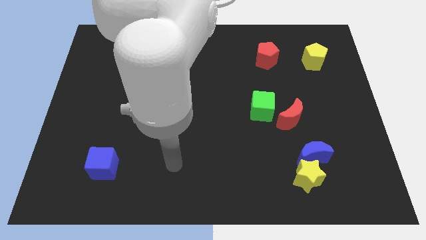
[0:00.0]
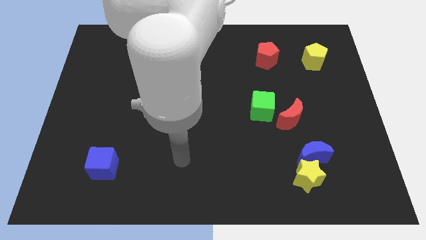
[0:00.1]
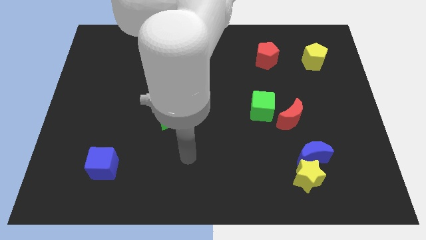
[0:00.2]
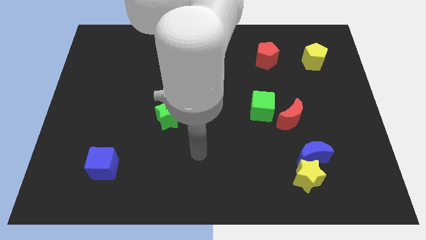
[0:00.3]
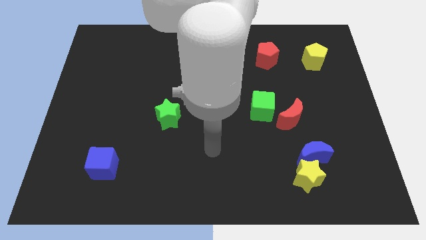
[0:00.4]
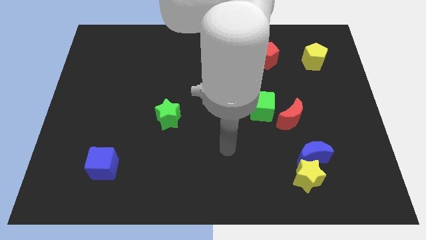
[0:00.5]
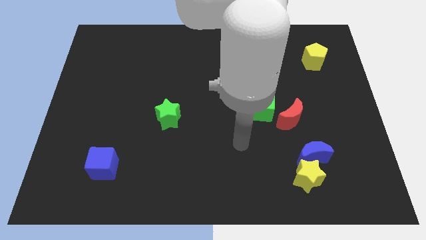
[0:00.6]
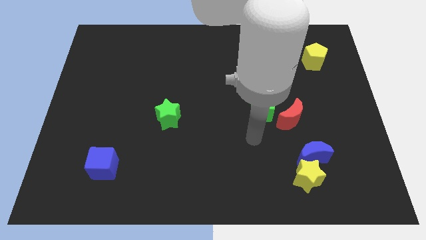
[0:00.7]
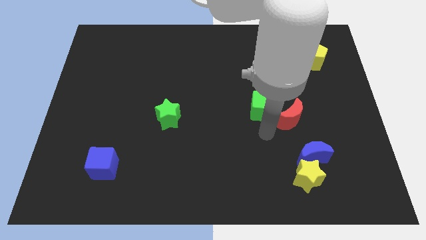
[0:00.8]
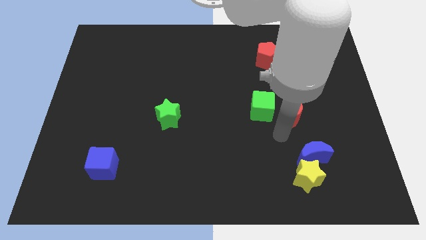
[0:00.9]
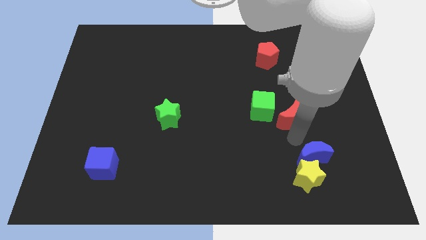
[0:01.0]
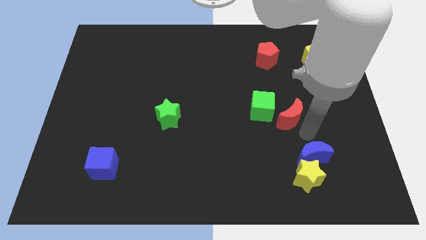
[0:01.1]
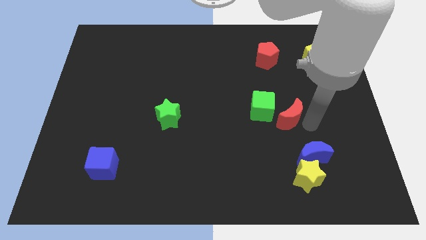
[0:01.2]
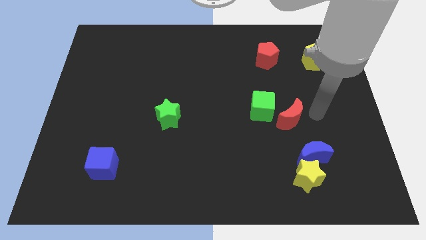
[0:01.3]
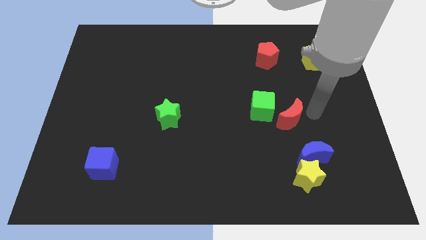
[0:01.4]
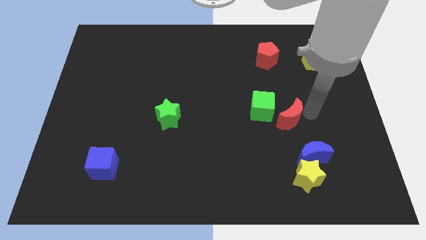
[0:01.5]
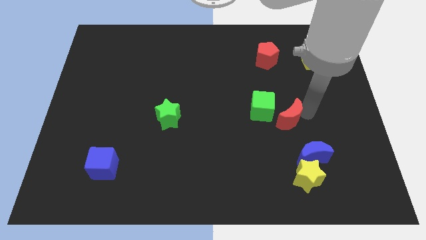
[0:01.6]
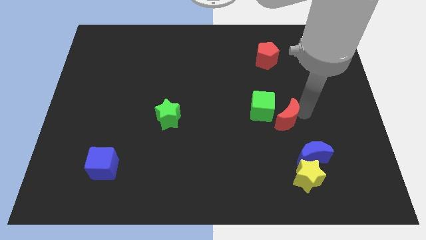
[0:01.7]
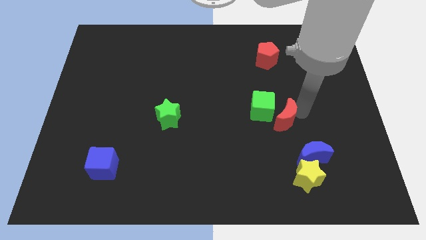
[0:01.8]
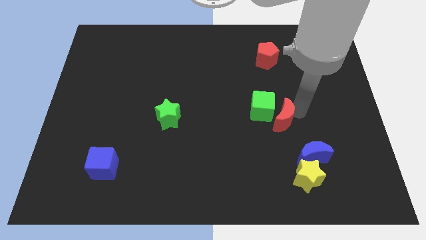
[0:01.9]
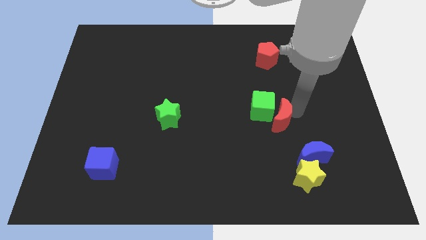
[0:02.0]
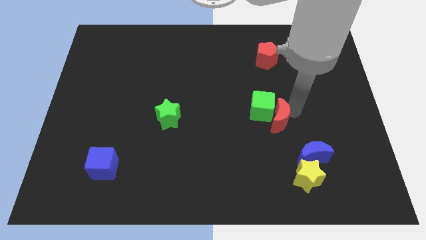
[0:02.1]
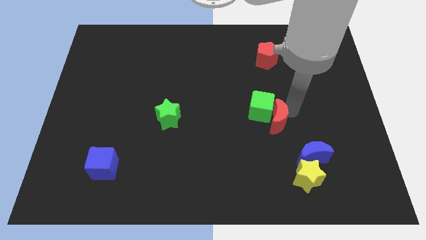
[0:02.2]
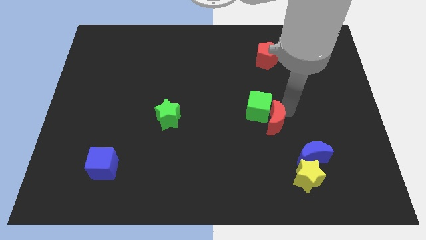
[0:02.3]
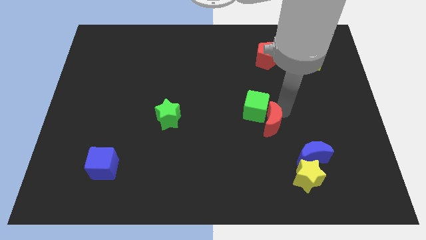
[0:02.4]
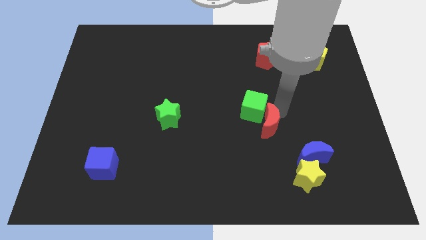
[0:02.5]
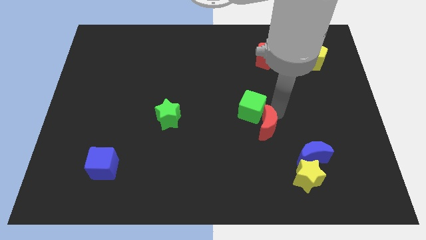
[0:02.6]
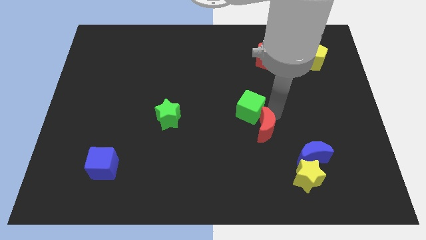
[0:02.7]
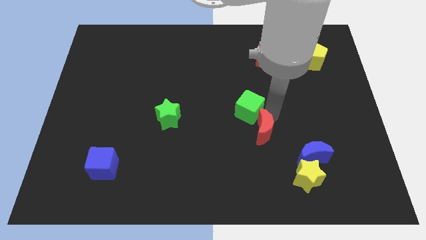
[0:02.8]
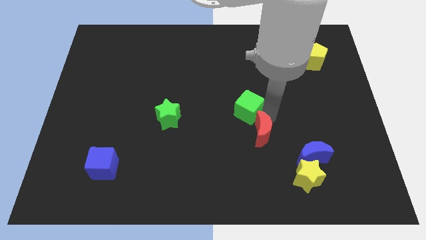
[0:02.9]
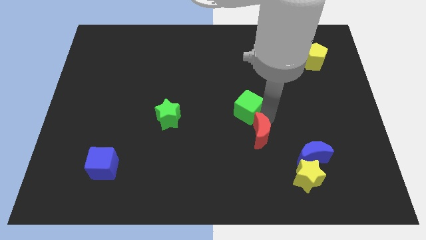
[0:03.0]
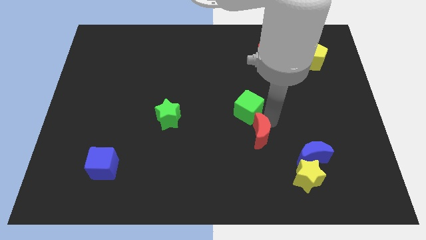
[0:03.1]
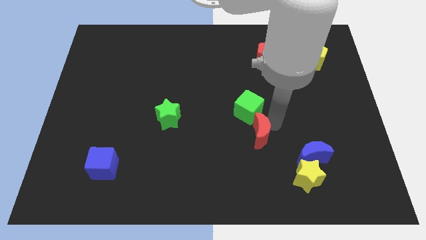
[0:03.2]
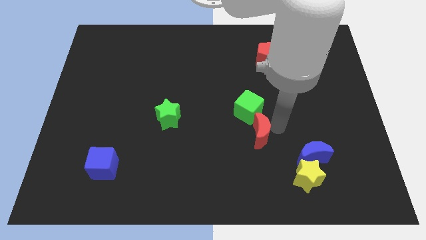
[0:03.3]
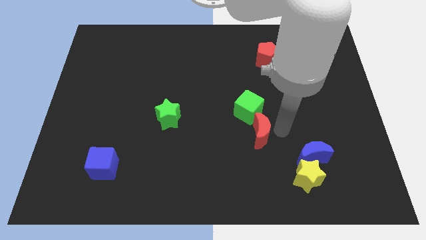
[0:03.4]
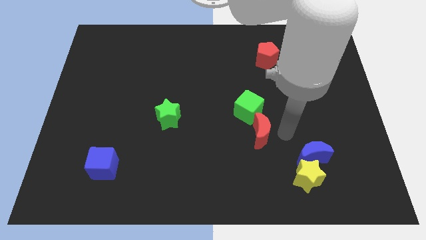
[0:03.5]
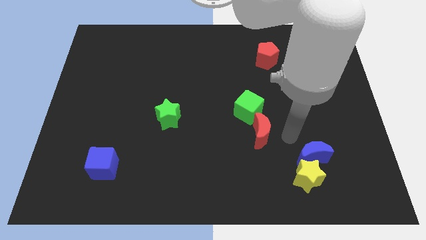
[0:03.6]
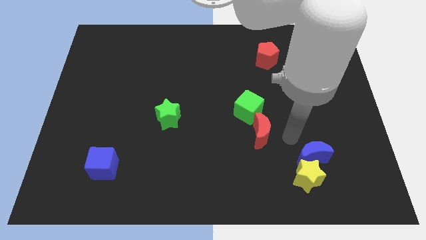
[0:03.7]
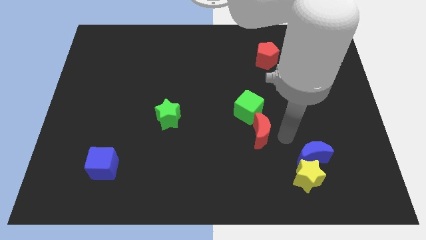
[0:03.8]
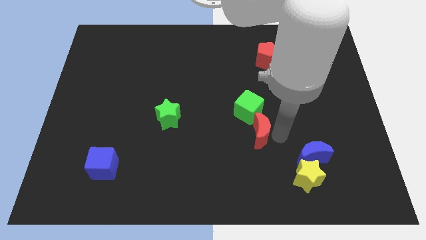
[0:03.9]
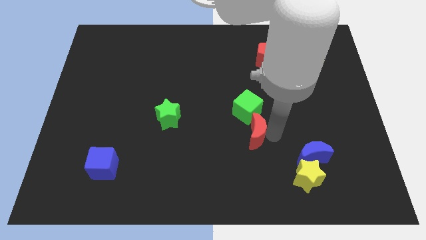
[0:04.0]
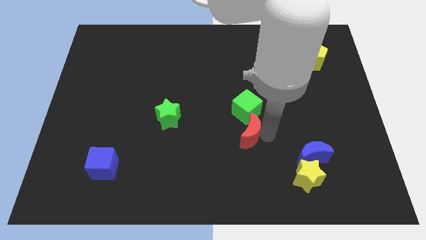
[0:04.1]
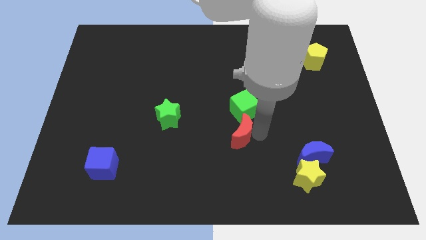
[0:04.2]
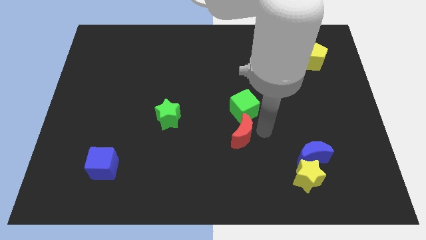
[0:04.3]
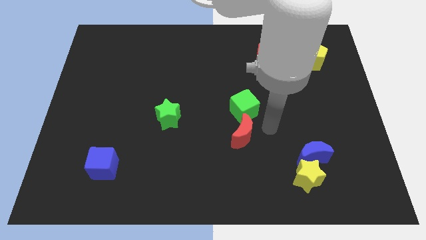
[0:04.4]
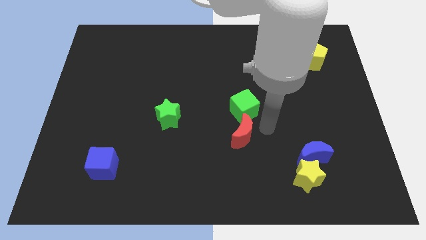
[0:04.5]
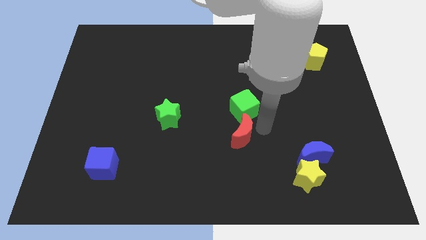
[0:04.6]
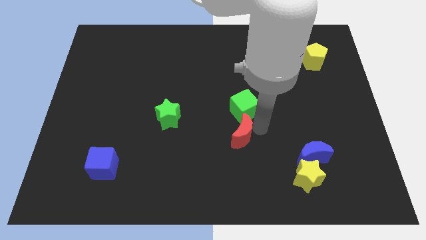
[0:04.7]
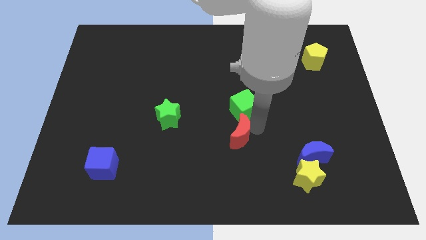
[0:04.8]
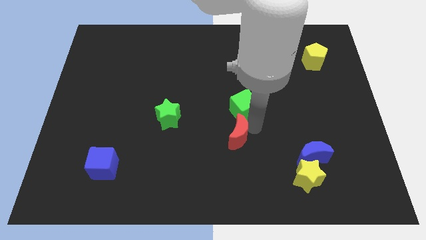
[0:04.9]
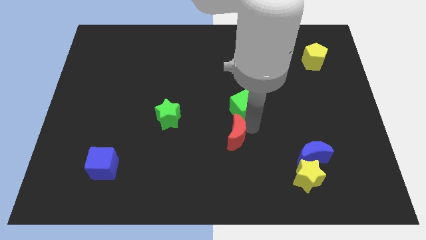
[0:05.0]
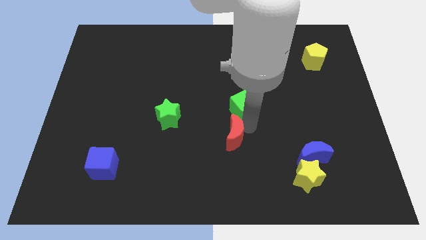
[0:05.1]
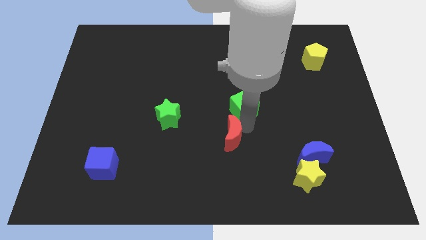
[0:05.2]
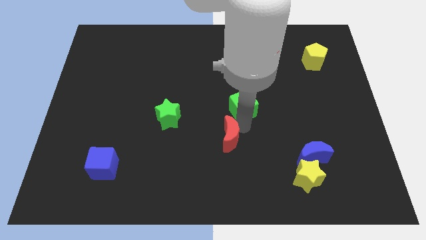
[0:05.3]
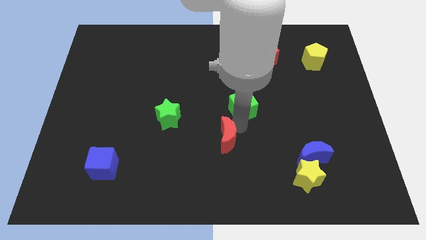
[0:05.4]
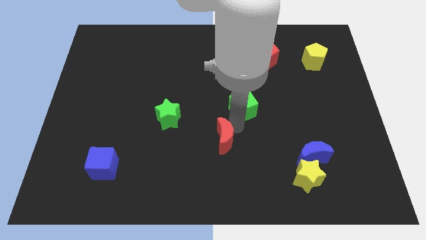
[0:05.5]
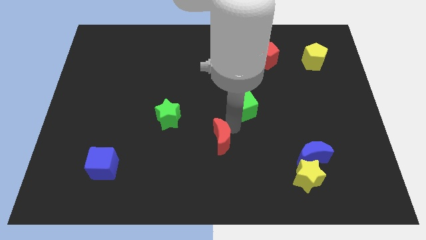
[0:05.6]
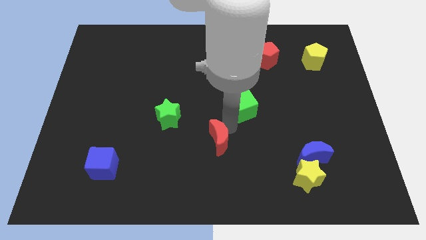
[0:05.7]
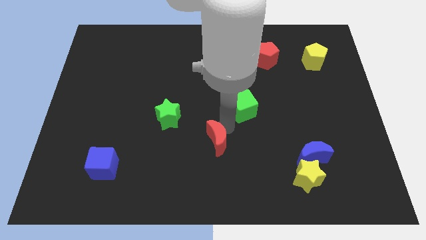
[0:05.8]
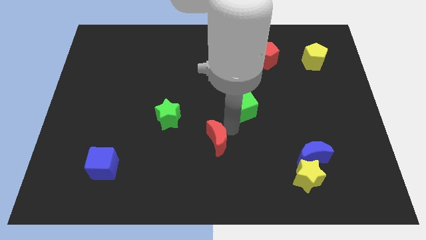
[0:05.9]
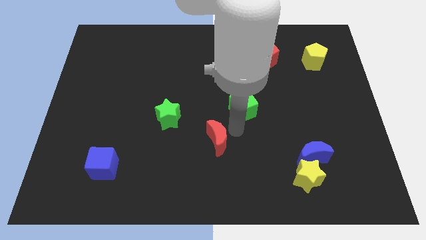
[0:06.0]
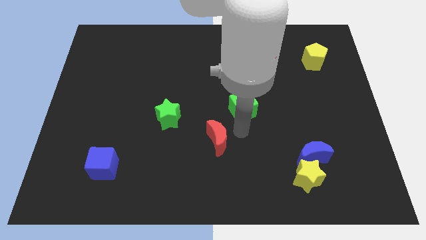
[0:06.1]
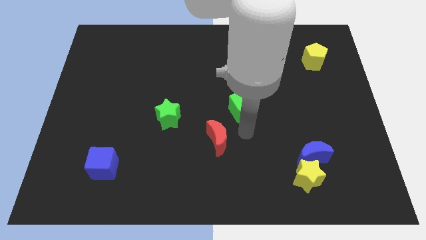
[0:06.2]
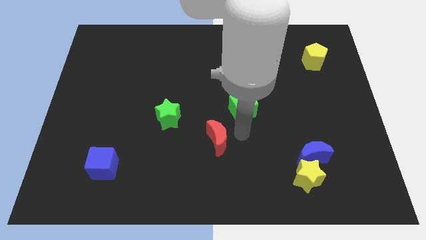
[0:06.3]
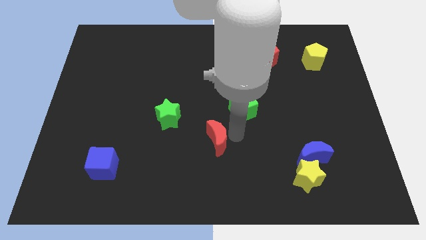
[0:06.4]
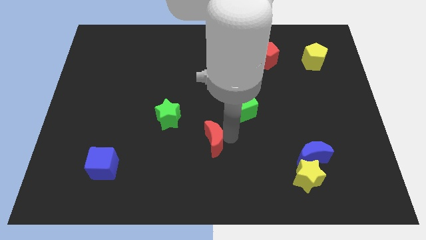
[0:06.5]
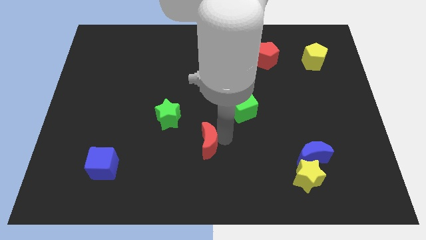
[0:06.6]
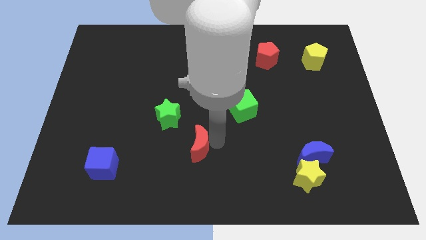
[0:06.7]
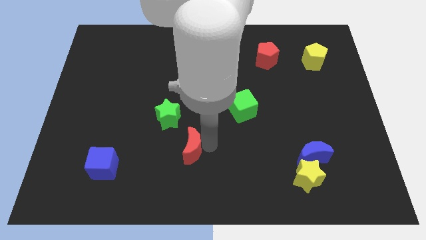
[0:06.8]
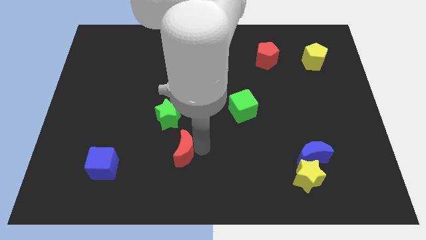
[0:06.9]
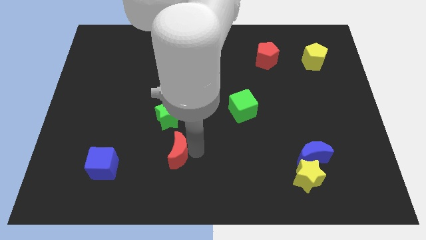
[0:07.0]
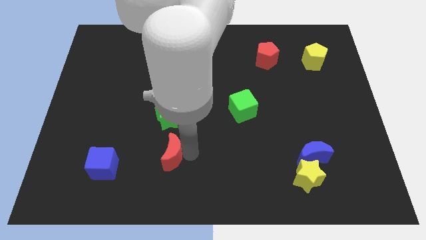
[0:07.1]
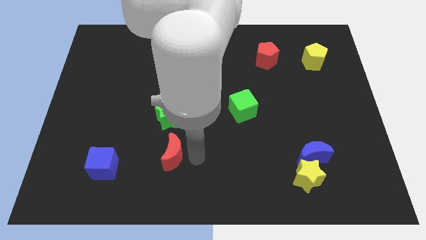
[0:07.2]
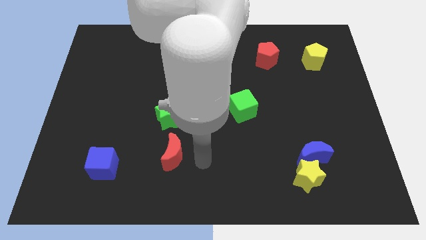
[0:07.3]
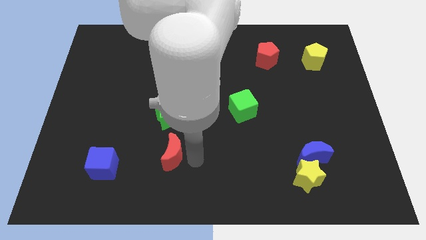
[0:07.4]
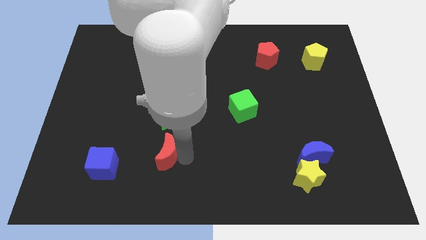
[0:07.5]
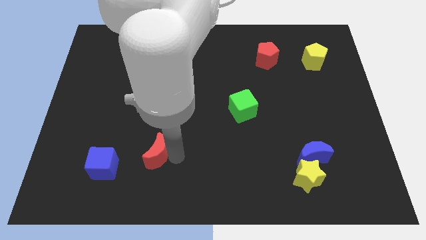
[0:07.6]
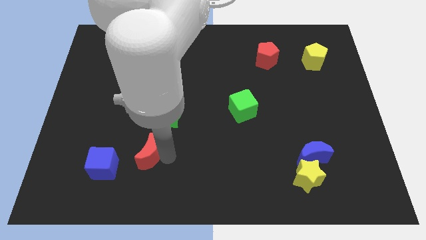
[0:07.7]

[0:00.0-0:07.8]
slide the red moon diagonally up and to the right of the blue cube
